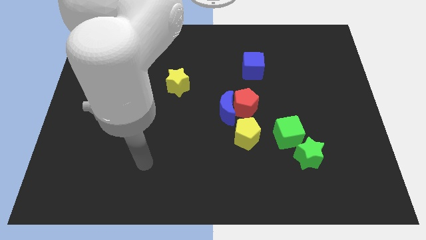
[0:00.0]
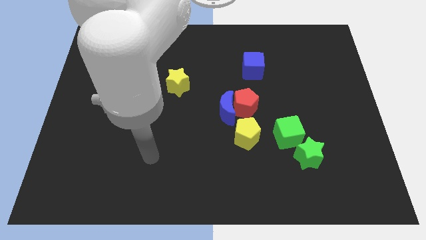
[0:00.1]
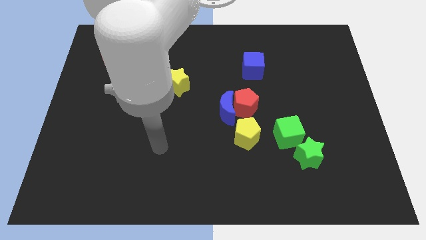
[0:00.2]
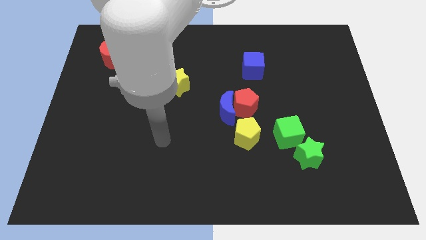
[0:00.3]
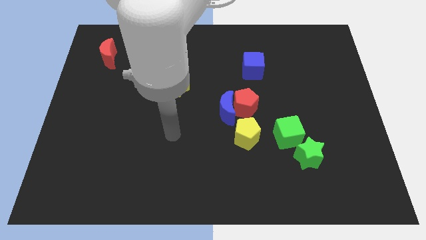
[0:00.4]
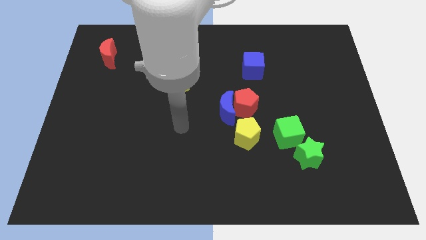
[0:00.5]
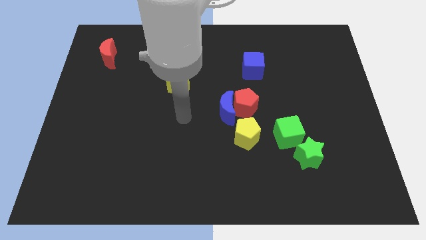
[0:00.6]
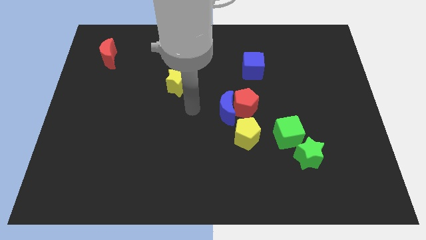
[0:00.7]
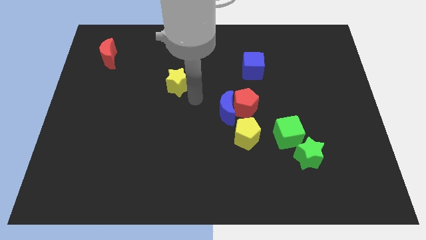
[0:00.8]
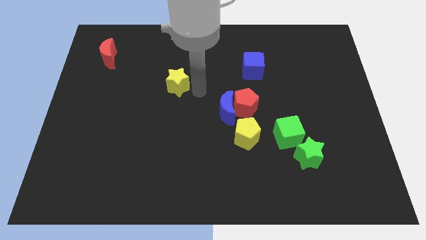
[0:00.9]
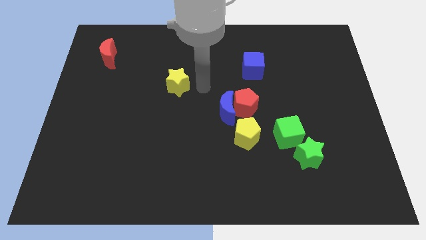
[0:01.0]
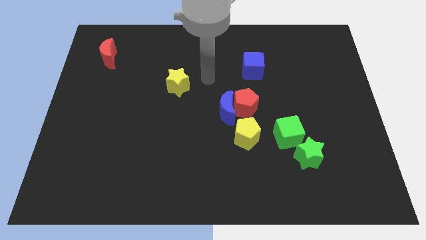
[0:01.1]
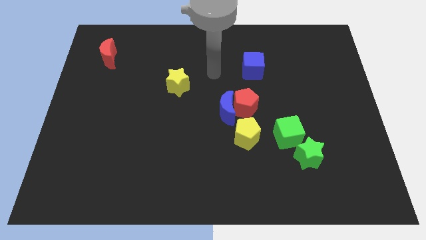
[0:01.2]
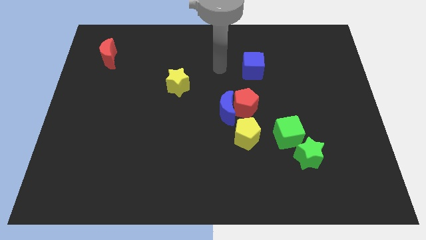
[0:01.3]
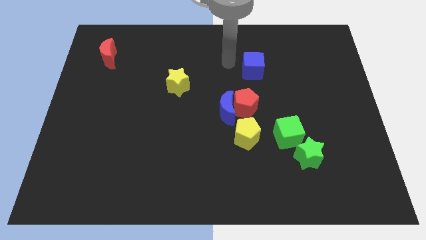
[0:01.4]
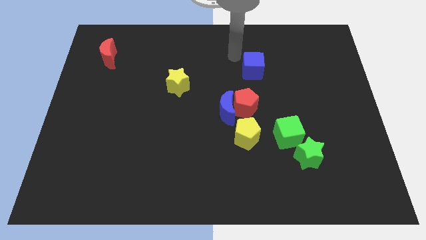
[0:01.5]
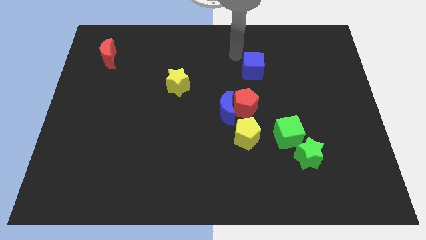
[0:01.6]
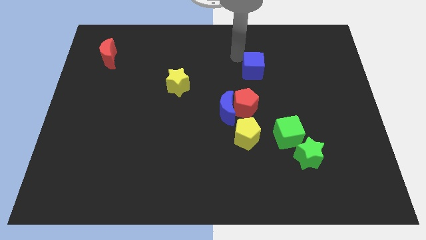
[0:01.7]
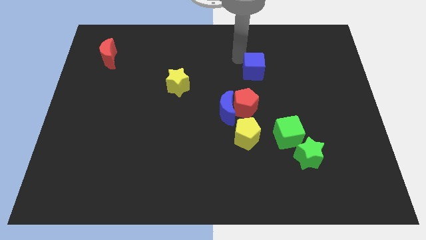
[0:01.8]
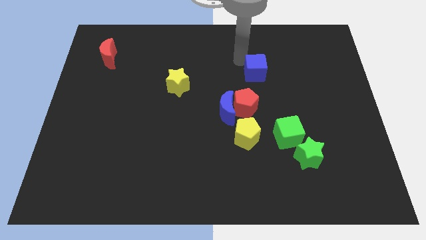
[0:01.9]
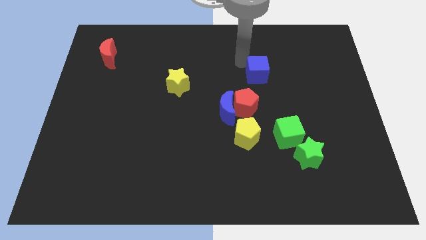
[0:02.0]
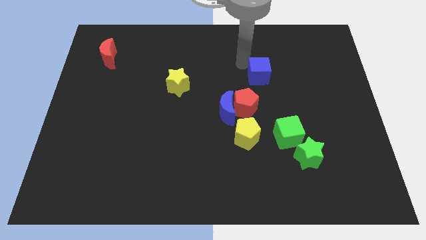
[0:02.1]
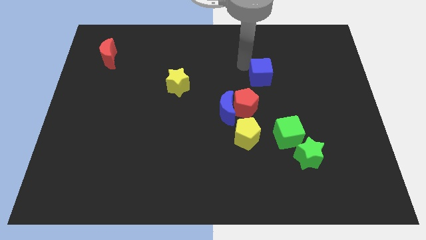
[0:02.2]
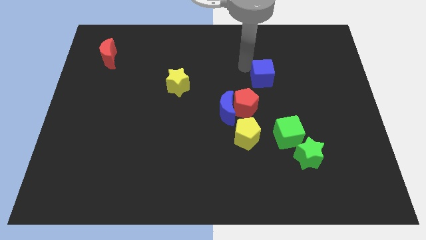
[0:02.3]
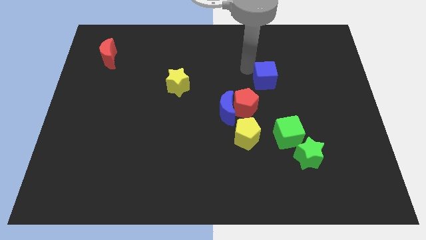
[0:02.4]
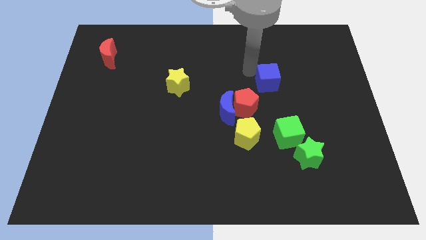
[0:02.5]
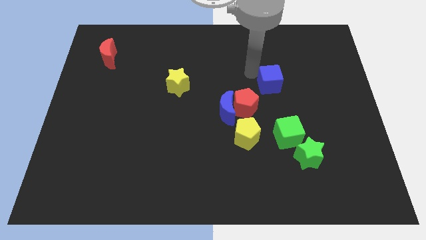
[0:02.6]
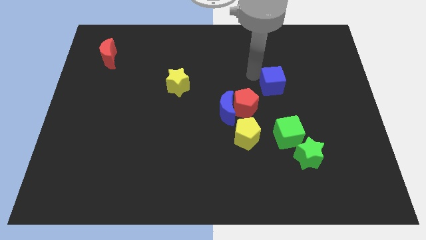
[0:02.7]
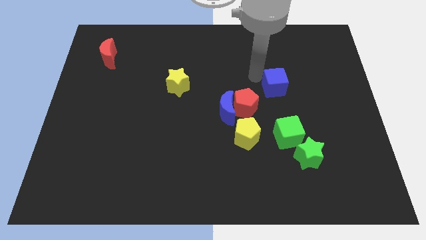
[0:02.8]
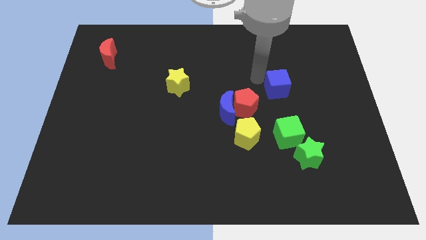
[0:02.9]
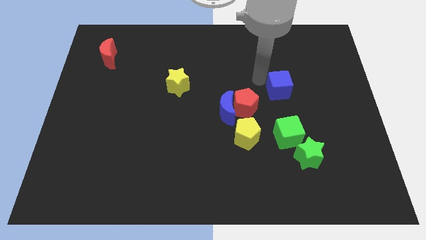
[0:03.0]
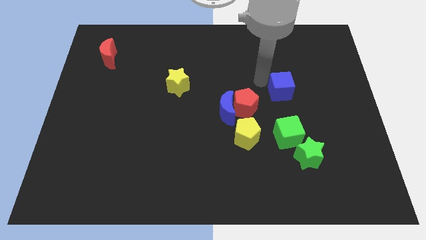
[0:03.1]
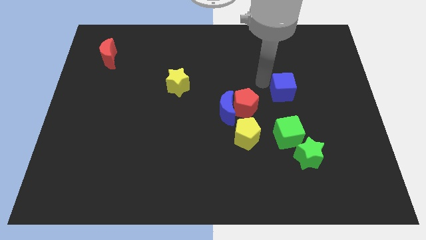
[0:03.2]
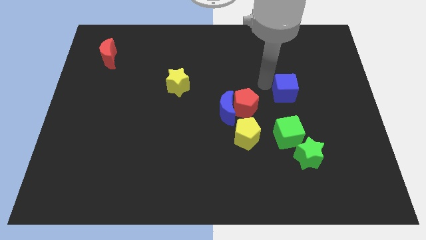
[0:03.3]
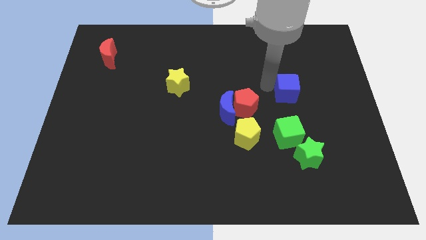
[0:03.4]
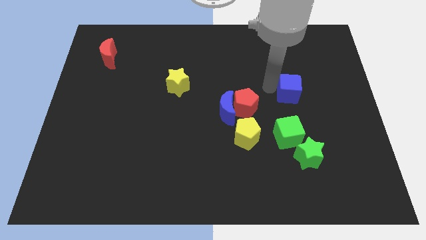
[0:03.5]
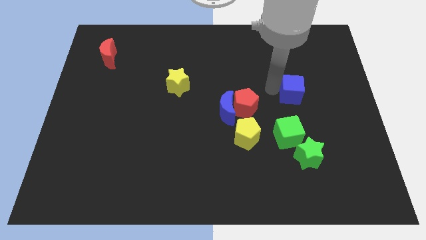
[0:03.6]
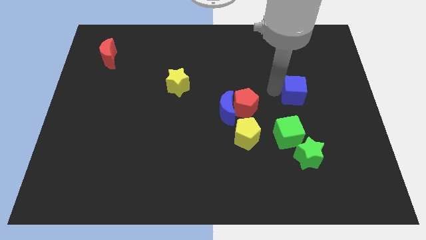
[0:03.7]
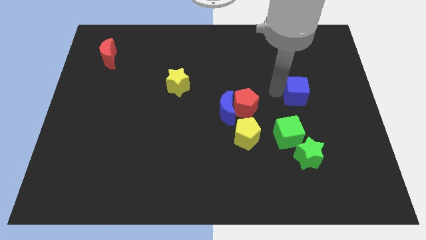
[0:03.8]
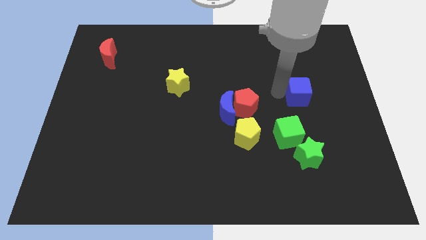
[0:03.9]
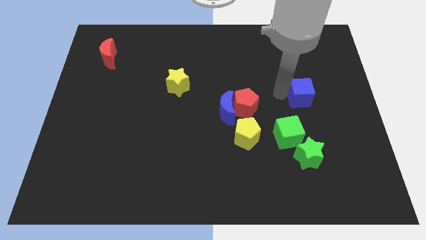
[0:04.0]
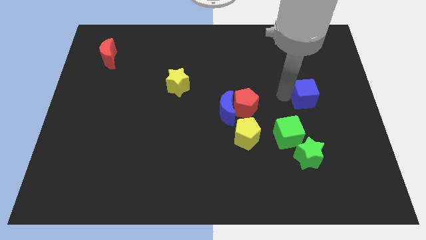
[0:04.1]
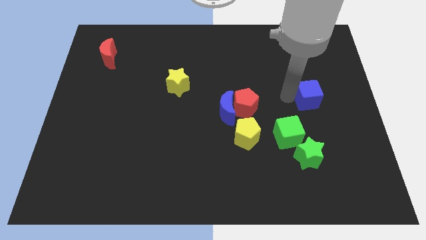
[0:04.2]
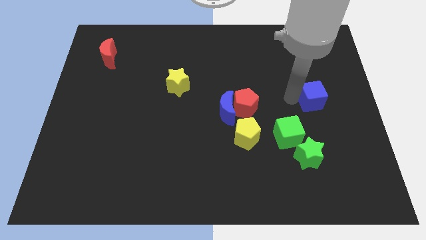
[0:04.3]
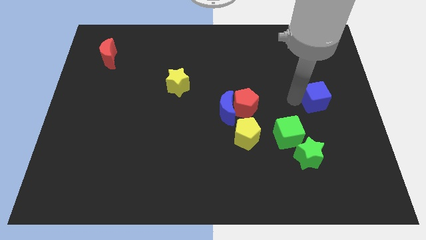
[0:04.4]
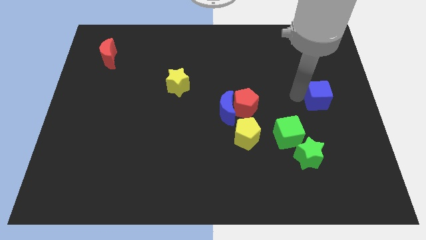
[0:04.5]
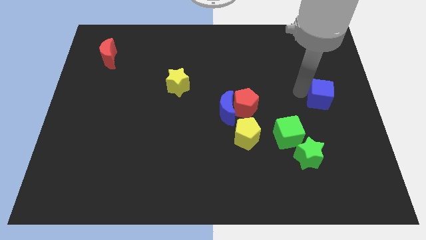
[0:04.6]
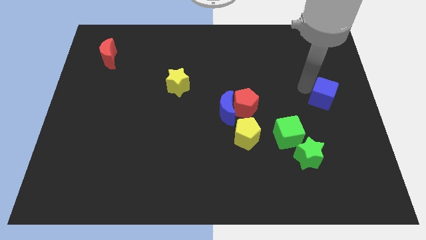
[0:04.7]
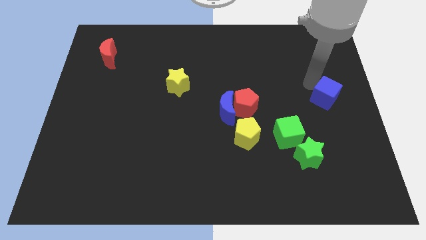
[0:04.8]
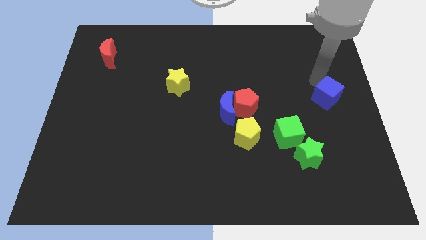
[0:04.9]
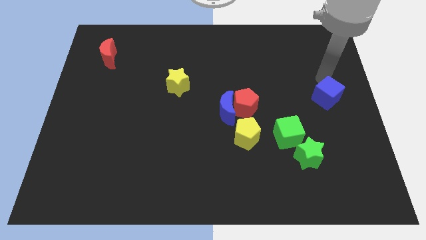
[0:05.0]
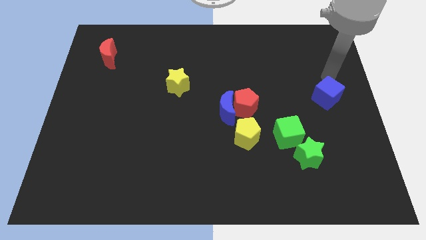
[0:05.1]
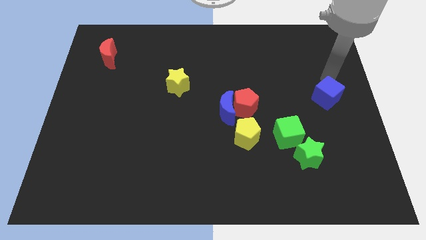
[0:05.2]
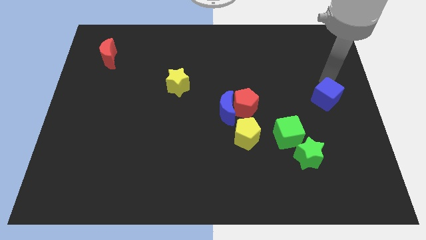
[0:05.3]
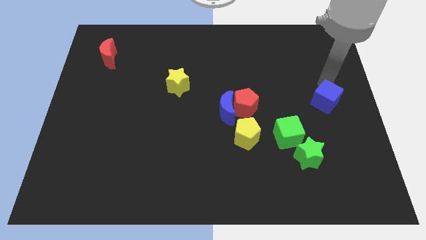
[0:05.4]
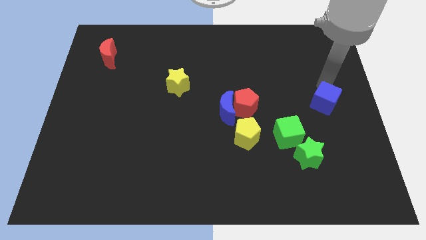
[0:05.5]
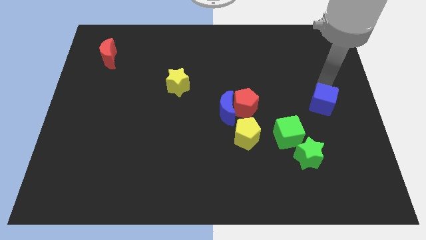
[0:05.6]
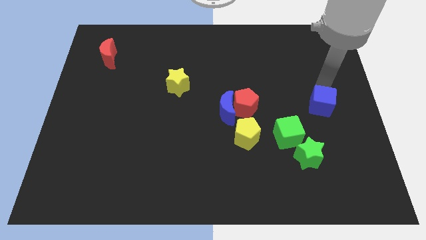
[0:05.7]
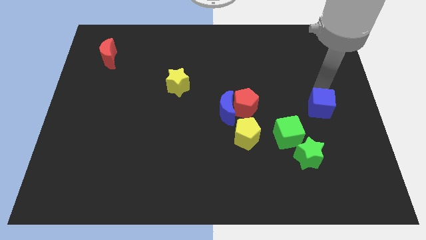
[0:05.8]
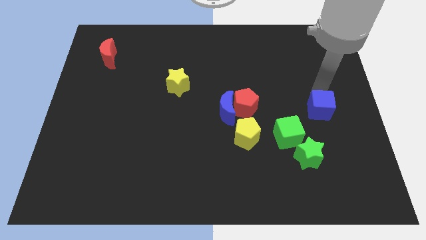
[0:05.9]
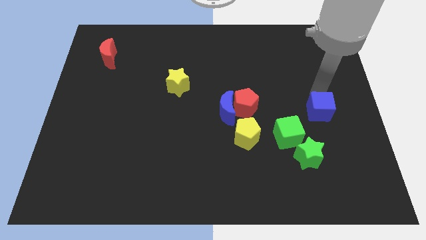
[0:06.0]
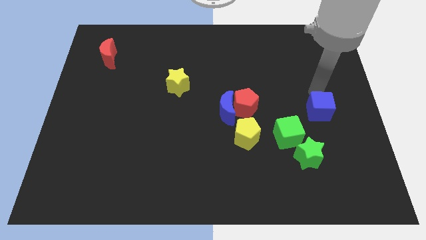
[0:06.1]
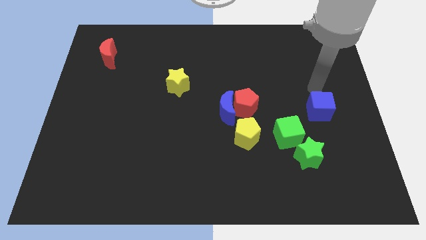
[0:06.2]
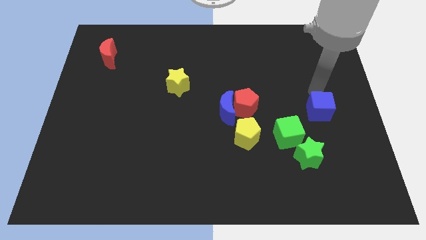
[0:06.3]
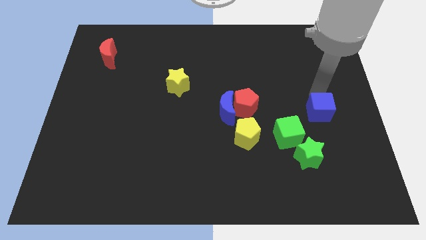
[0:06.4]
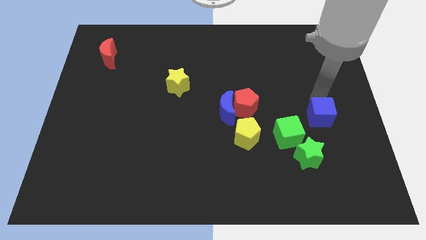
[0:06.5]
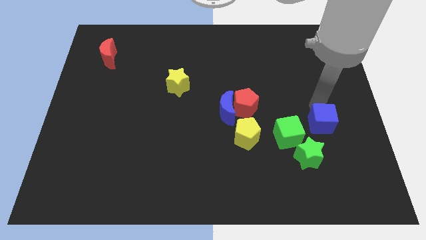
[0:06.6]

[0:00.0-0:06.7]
put the blue cube to the right of the green cube

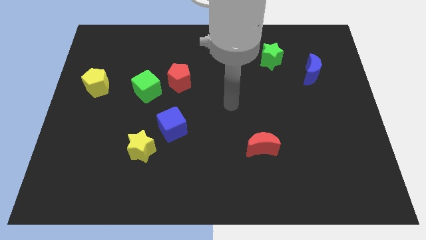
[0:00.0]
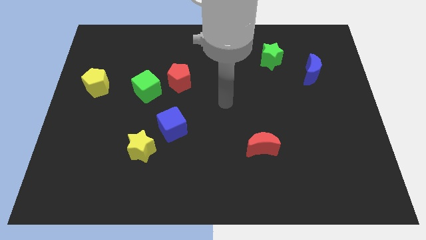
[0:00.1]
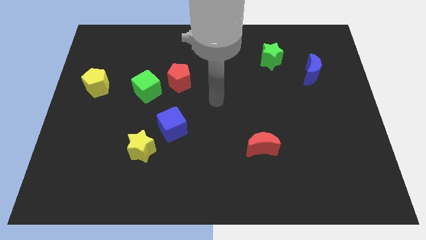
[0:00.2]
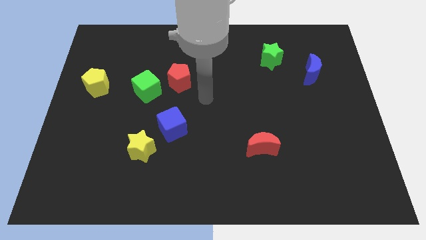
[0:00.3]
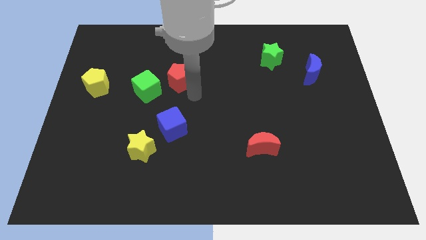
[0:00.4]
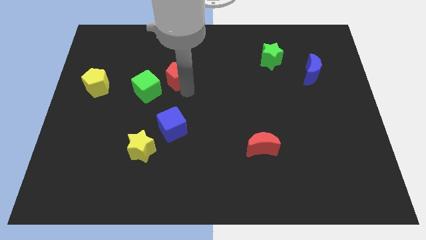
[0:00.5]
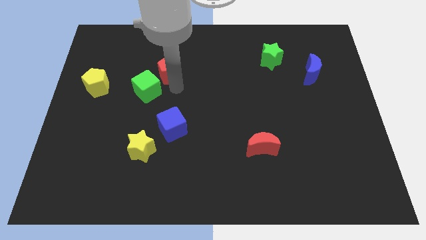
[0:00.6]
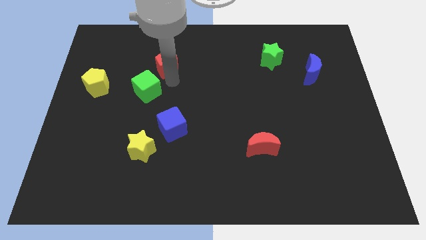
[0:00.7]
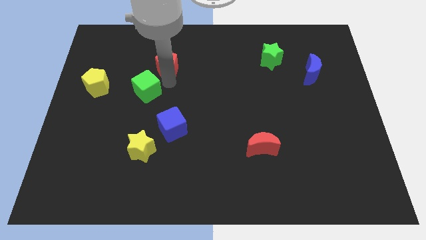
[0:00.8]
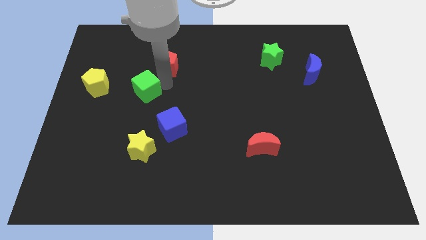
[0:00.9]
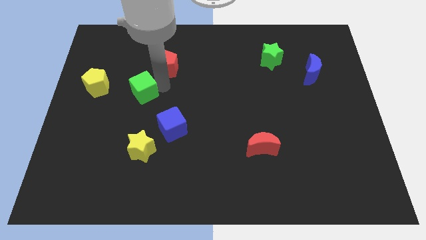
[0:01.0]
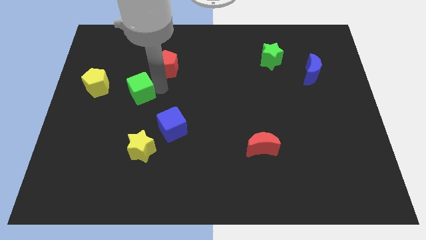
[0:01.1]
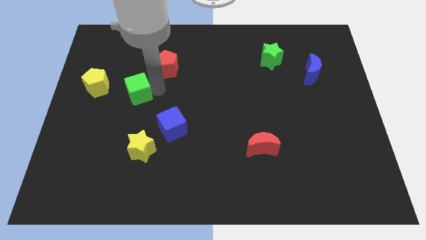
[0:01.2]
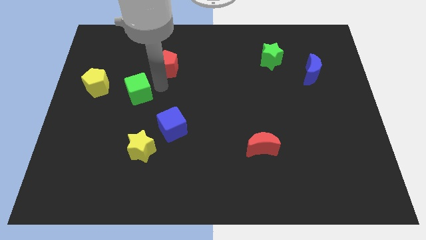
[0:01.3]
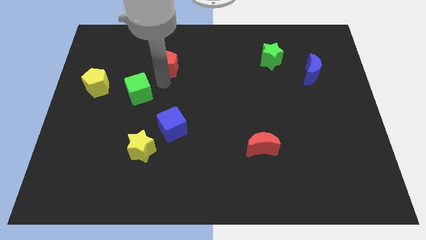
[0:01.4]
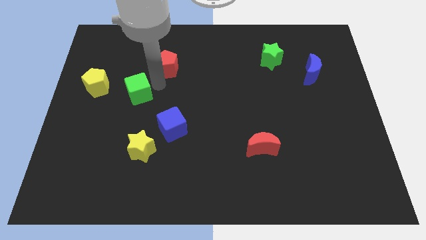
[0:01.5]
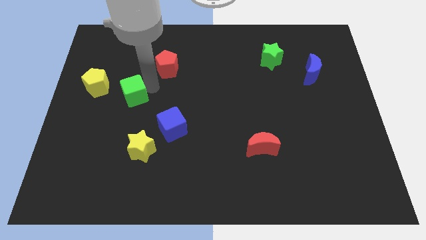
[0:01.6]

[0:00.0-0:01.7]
put the green cube diagonally down and to the right of the yellow pentagon
